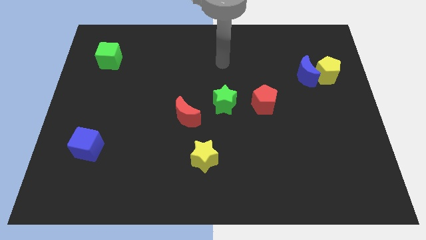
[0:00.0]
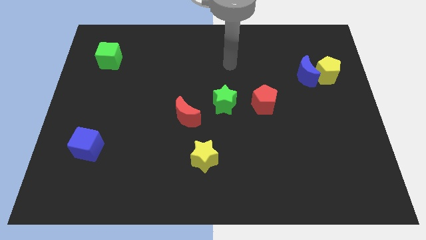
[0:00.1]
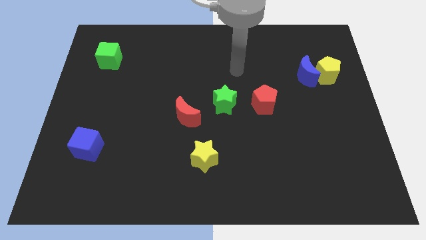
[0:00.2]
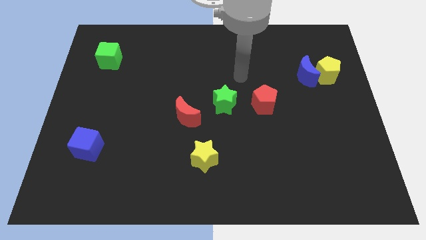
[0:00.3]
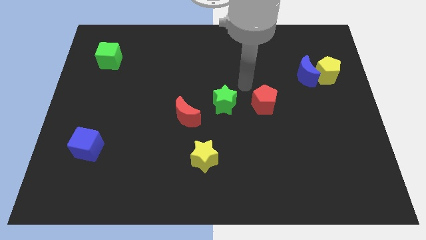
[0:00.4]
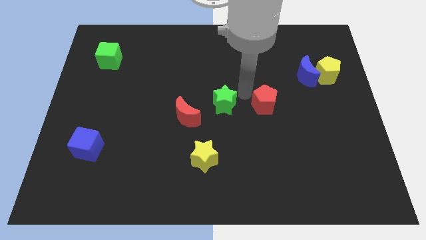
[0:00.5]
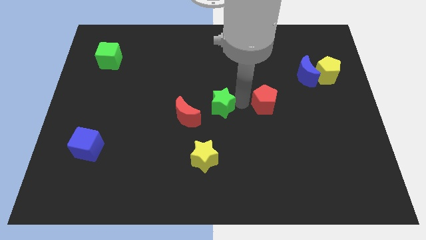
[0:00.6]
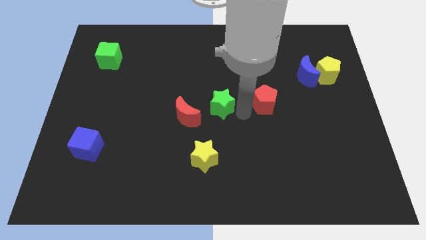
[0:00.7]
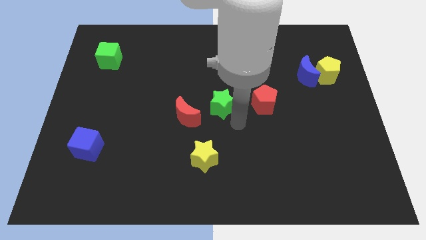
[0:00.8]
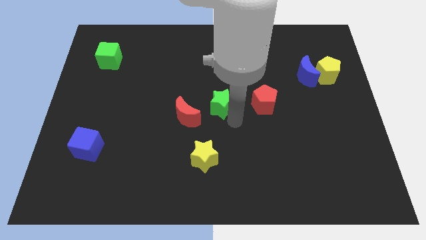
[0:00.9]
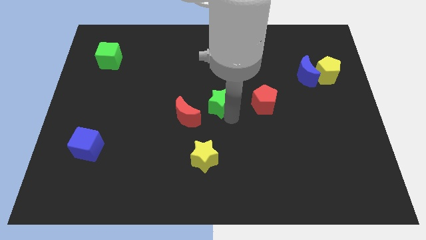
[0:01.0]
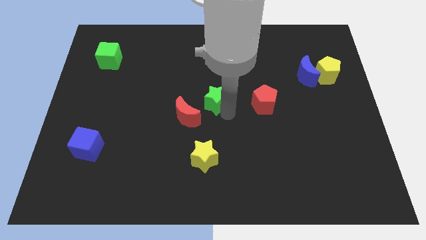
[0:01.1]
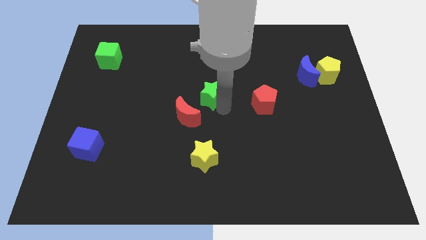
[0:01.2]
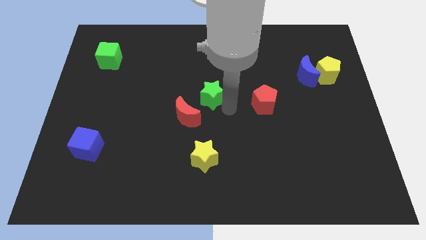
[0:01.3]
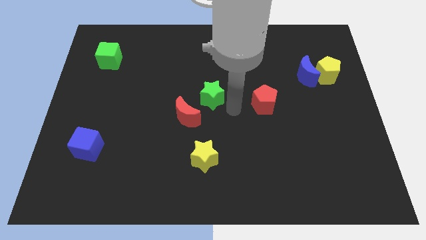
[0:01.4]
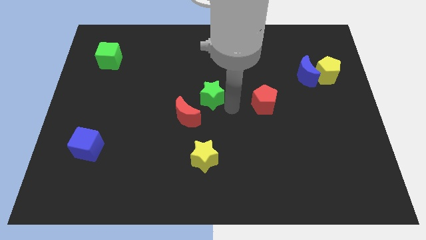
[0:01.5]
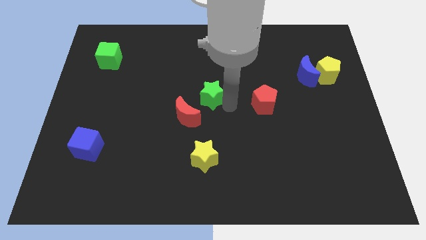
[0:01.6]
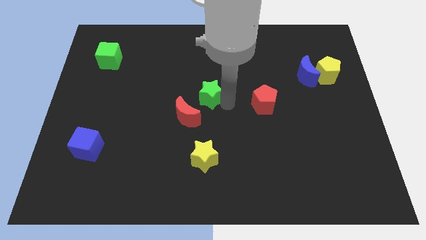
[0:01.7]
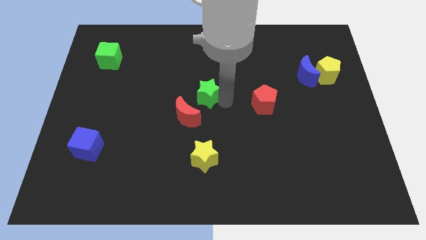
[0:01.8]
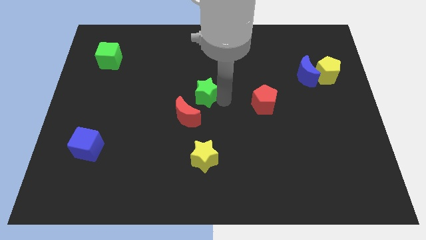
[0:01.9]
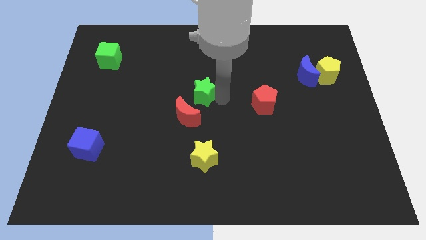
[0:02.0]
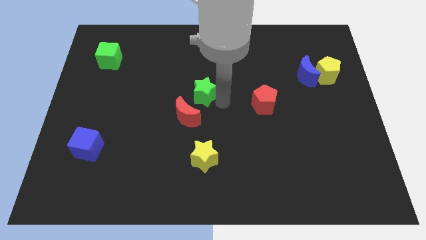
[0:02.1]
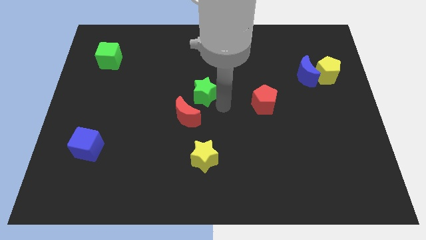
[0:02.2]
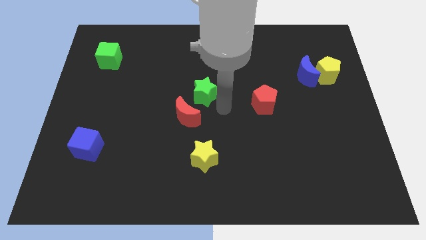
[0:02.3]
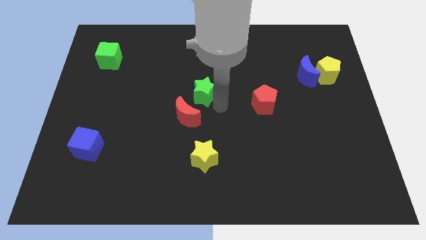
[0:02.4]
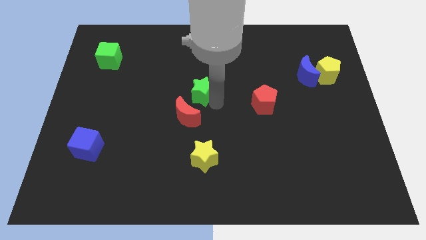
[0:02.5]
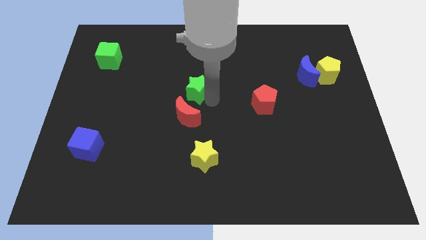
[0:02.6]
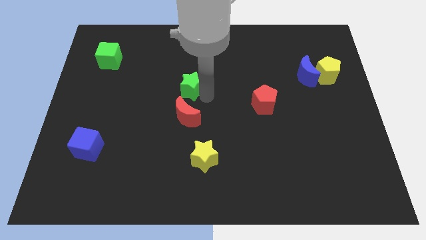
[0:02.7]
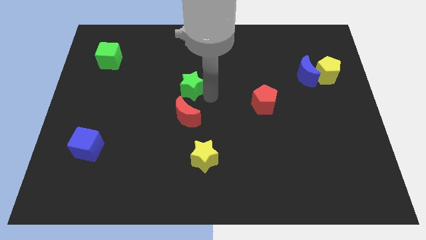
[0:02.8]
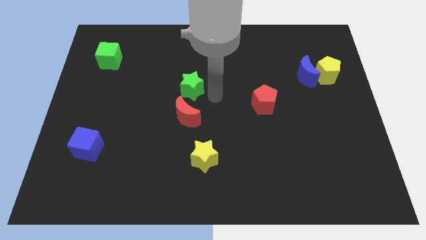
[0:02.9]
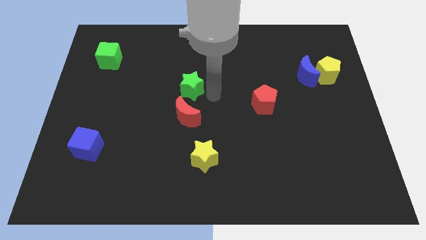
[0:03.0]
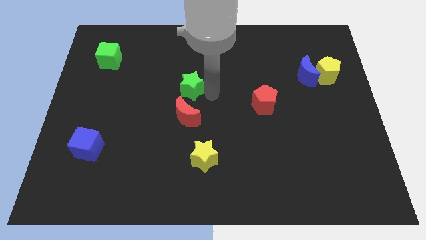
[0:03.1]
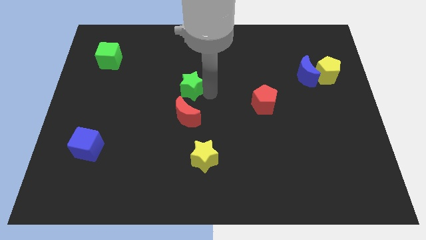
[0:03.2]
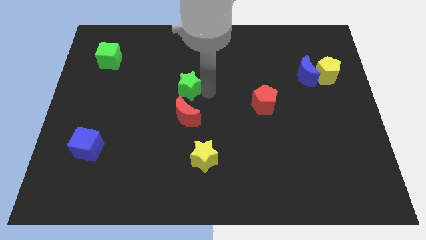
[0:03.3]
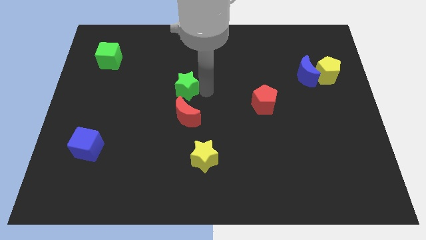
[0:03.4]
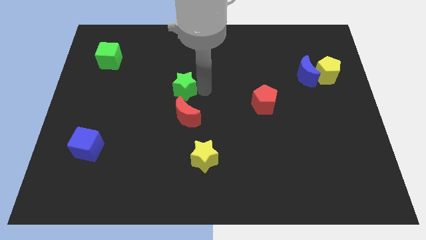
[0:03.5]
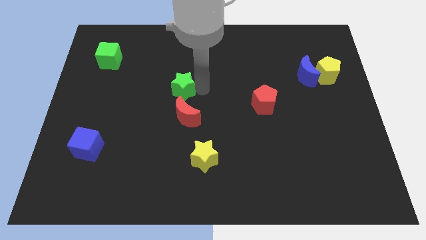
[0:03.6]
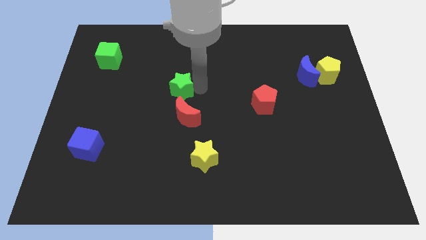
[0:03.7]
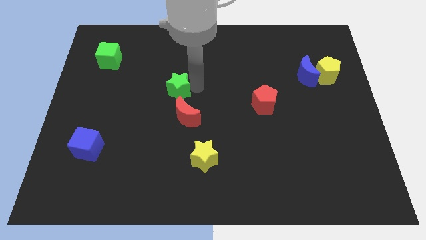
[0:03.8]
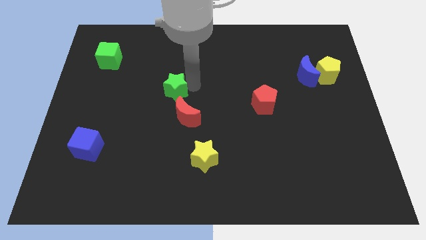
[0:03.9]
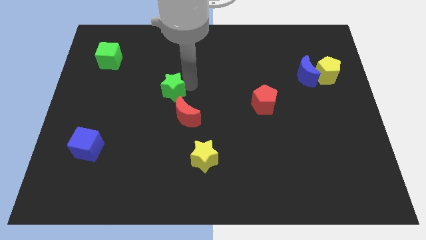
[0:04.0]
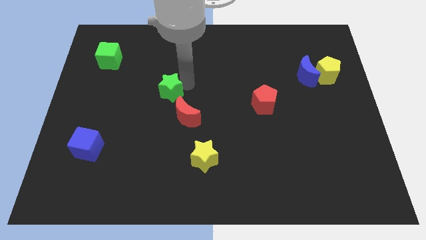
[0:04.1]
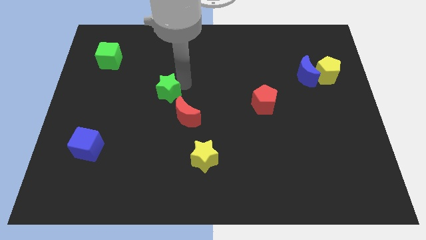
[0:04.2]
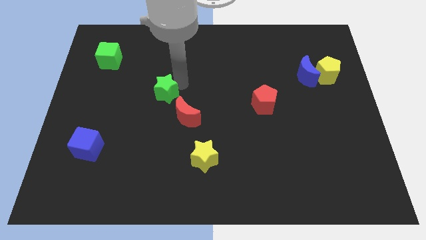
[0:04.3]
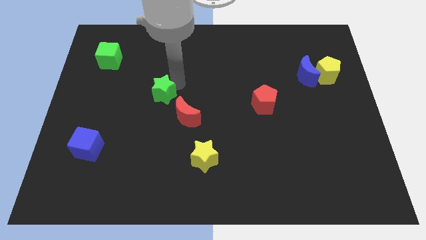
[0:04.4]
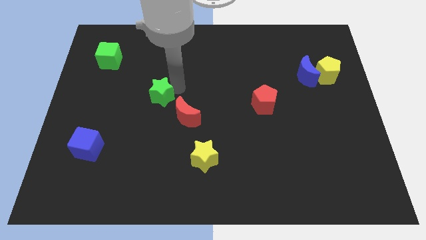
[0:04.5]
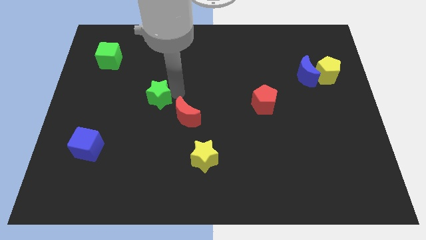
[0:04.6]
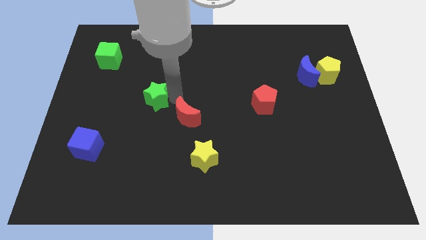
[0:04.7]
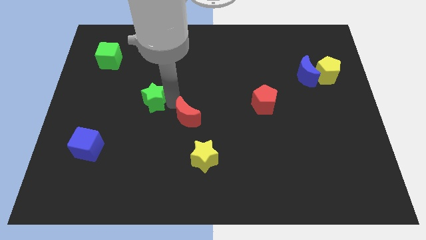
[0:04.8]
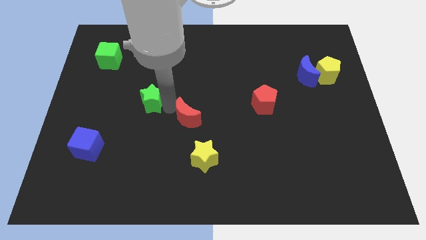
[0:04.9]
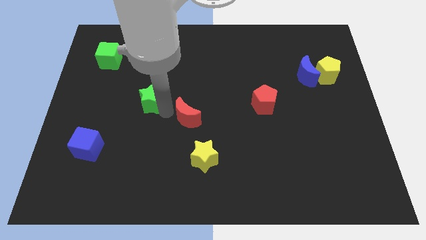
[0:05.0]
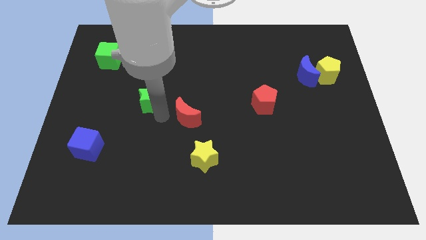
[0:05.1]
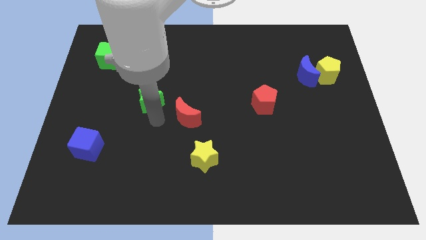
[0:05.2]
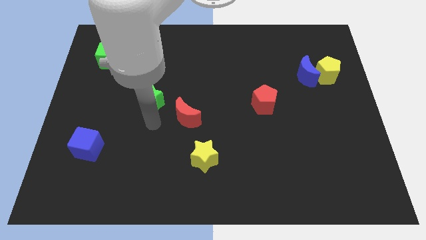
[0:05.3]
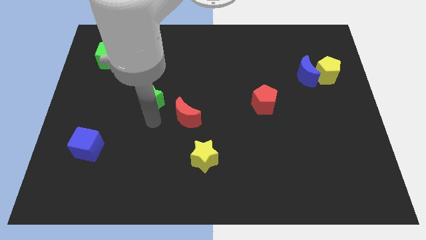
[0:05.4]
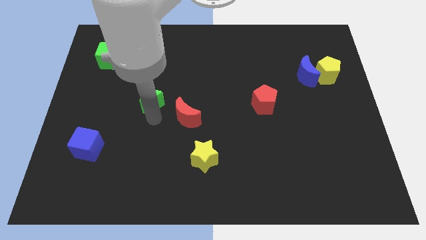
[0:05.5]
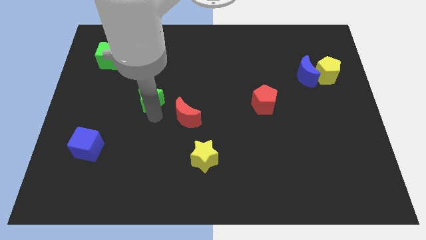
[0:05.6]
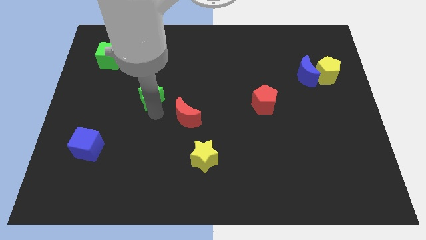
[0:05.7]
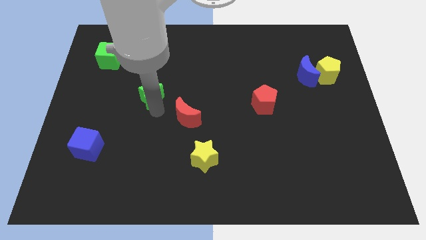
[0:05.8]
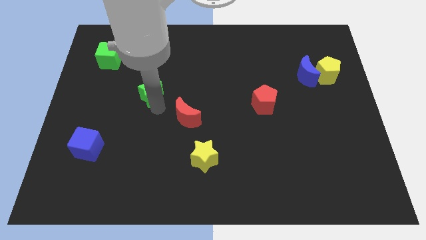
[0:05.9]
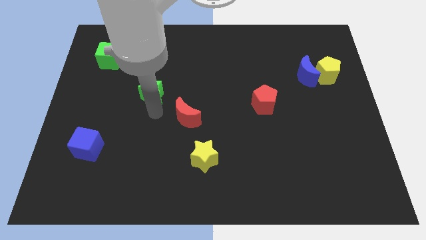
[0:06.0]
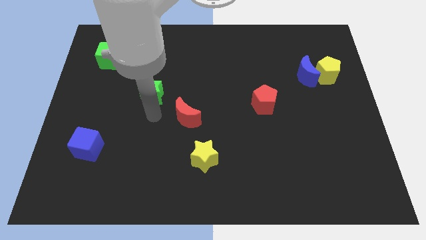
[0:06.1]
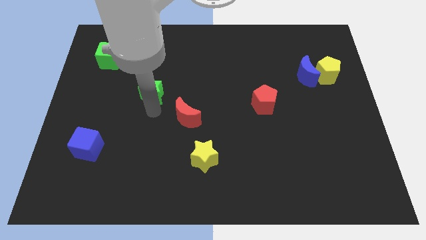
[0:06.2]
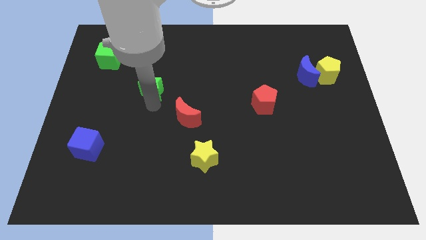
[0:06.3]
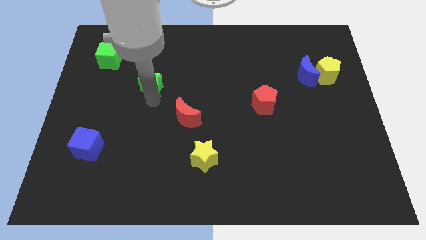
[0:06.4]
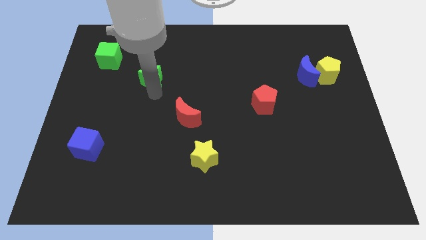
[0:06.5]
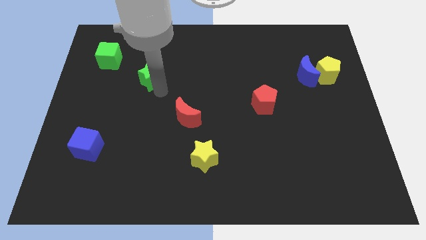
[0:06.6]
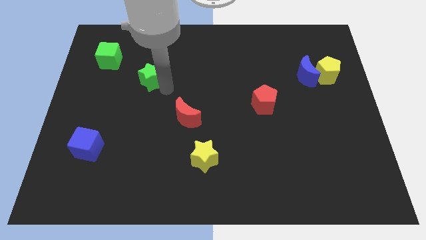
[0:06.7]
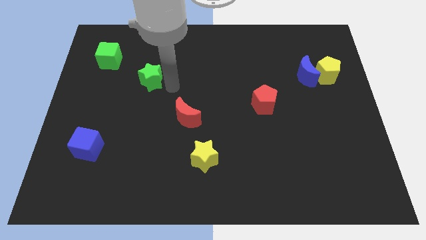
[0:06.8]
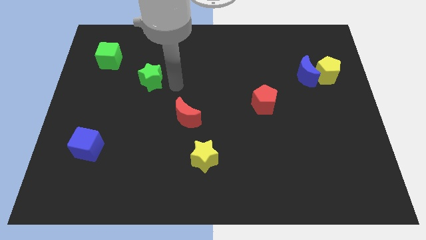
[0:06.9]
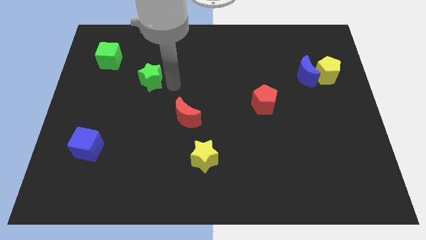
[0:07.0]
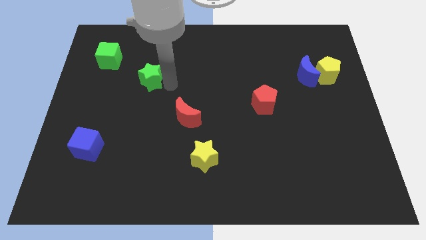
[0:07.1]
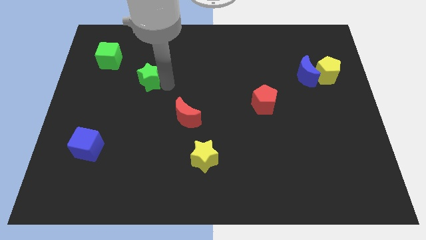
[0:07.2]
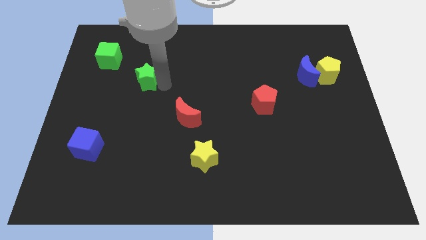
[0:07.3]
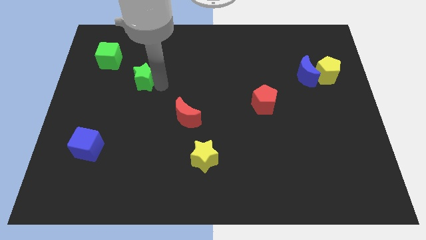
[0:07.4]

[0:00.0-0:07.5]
slide the green star diagonally down and to the right of the green cube

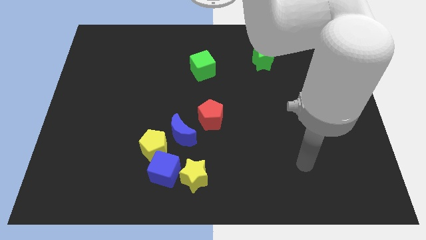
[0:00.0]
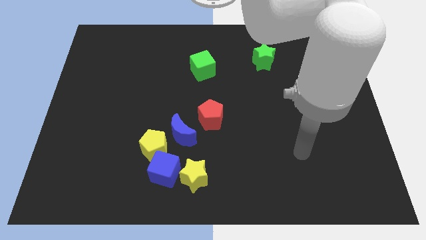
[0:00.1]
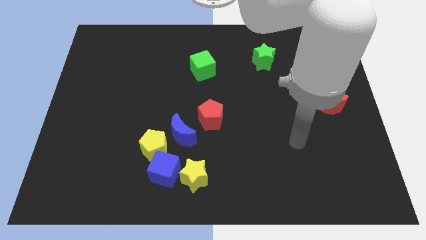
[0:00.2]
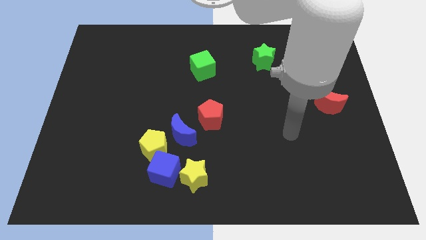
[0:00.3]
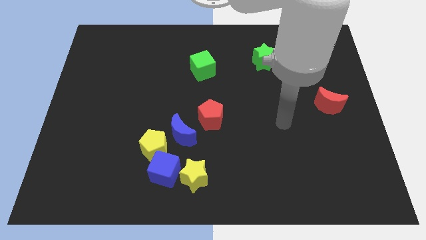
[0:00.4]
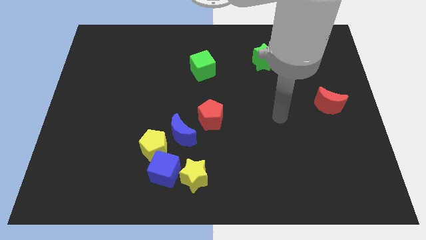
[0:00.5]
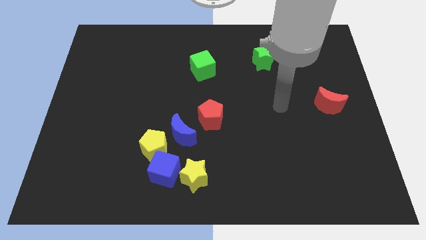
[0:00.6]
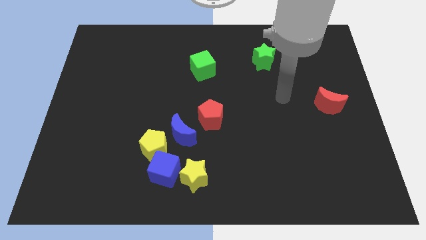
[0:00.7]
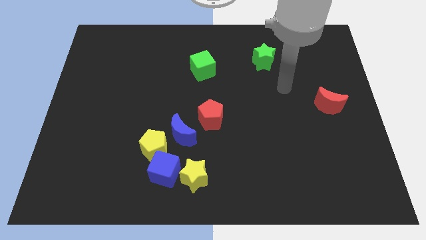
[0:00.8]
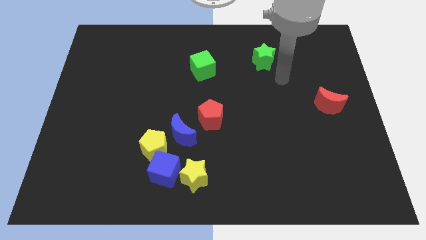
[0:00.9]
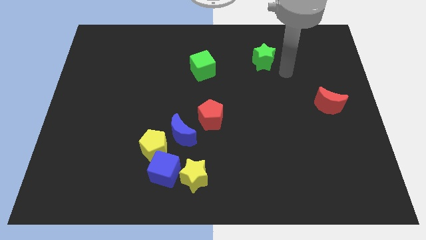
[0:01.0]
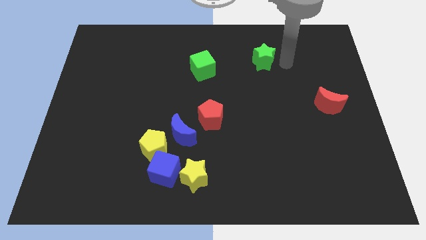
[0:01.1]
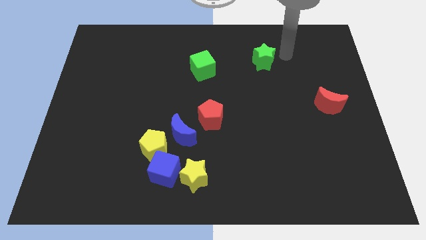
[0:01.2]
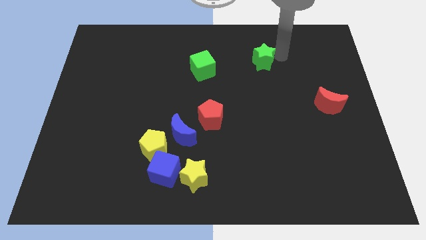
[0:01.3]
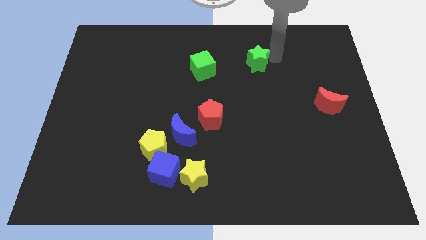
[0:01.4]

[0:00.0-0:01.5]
move the green star right of the green cube
